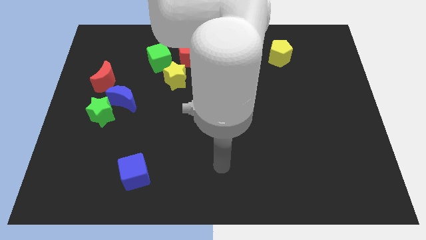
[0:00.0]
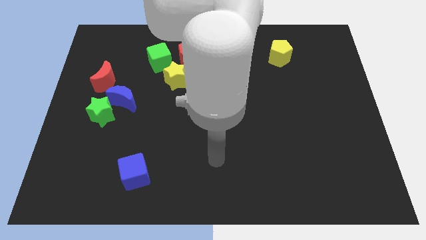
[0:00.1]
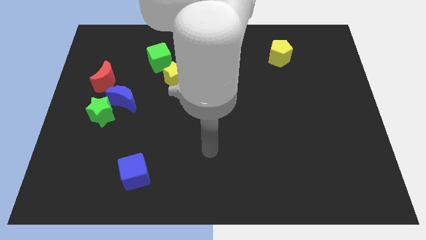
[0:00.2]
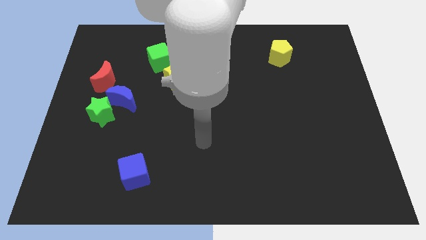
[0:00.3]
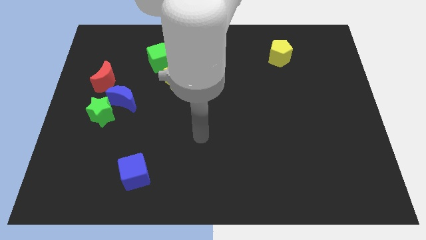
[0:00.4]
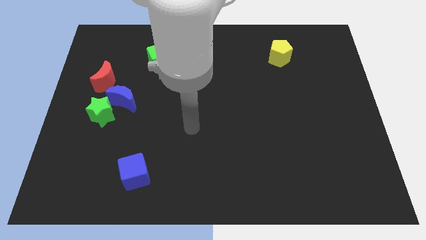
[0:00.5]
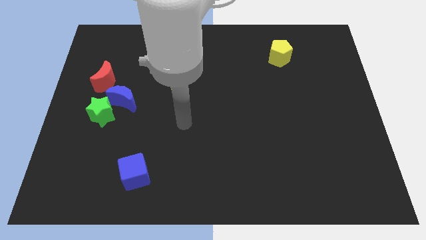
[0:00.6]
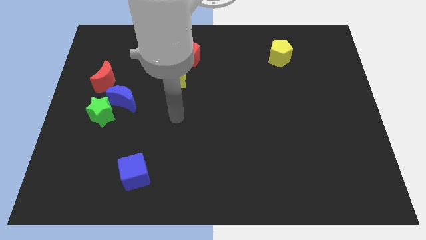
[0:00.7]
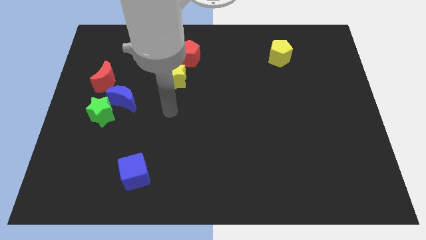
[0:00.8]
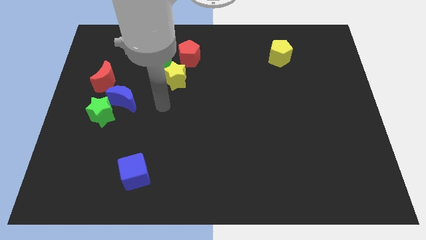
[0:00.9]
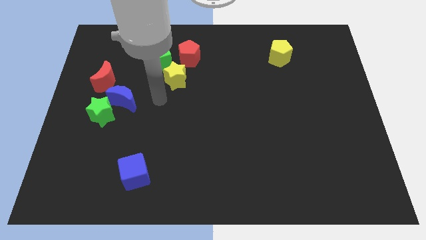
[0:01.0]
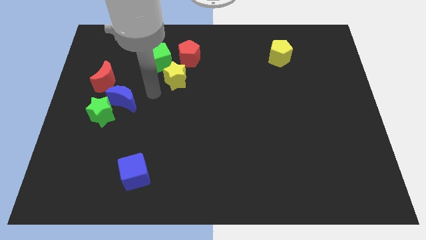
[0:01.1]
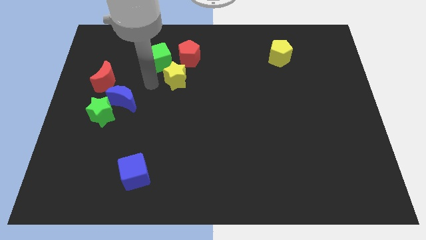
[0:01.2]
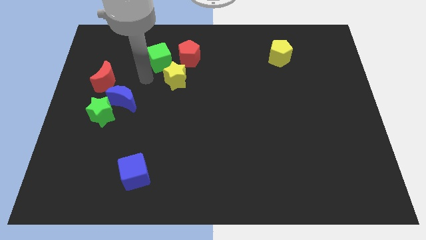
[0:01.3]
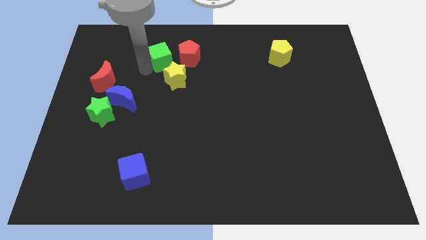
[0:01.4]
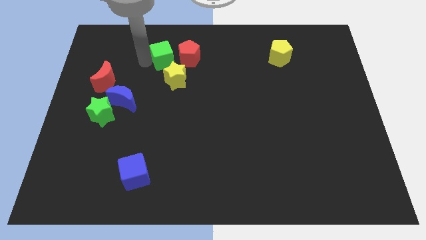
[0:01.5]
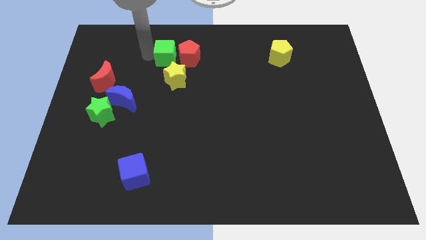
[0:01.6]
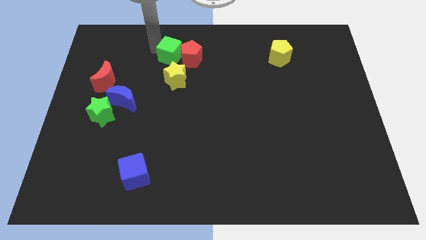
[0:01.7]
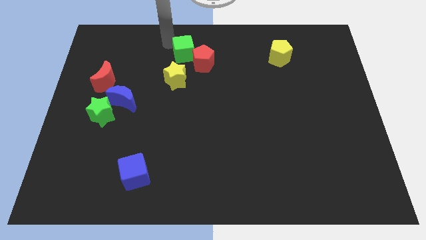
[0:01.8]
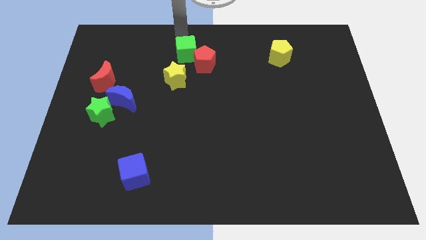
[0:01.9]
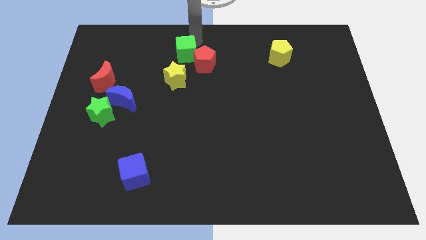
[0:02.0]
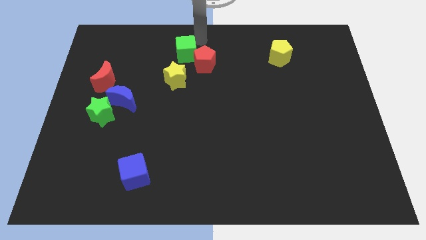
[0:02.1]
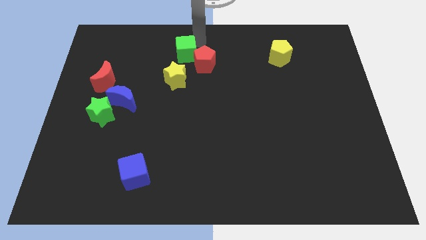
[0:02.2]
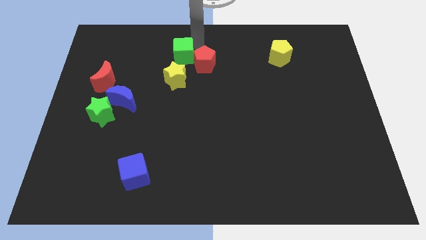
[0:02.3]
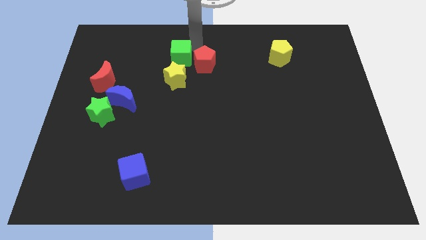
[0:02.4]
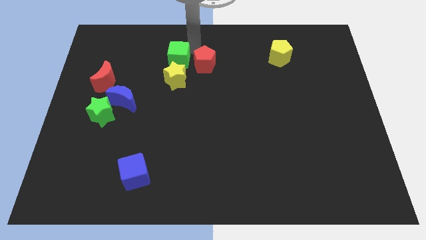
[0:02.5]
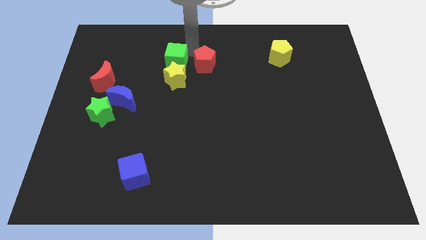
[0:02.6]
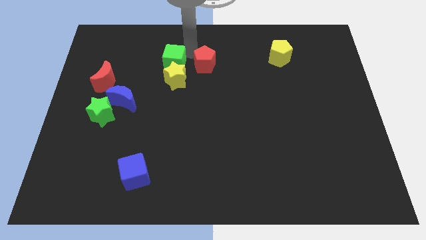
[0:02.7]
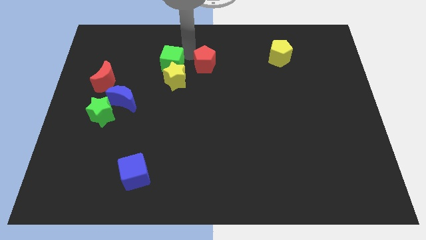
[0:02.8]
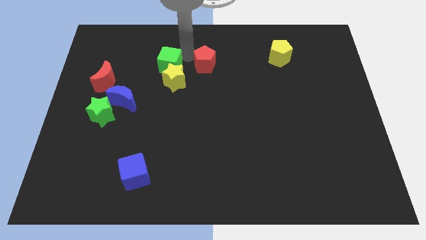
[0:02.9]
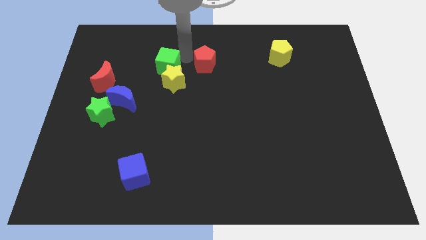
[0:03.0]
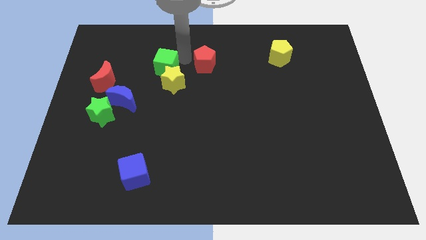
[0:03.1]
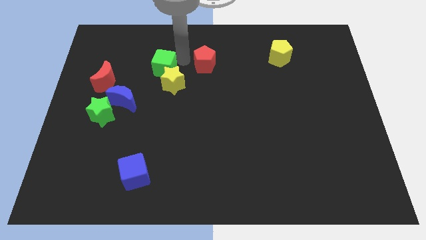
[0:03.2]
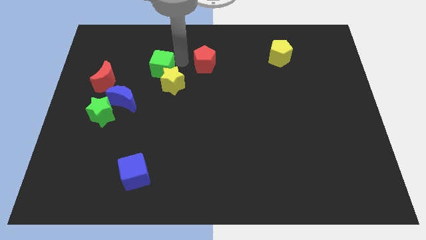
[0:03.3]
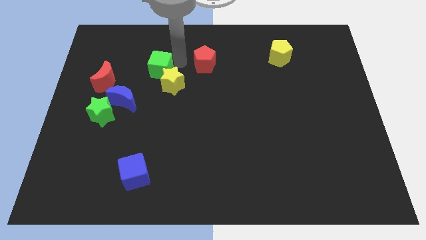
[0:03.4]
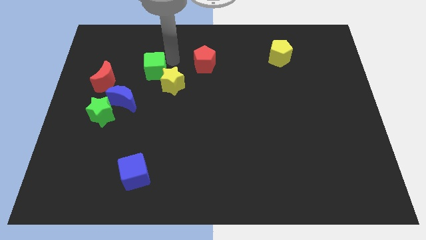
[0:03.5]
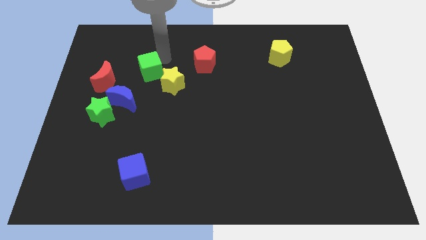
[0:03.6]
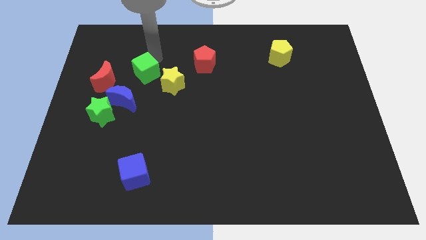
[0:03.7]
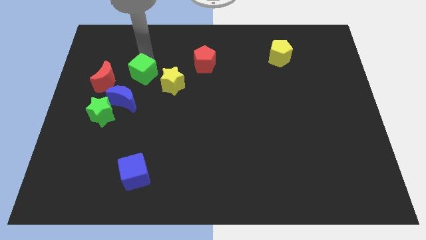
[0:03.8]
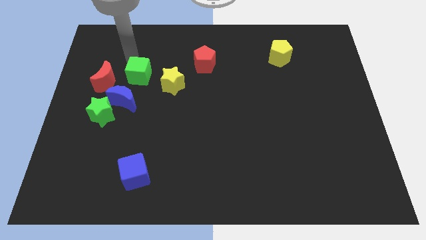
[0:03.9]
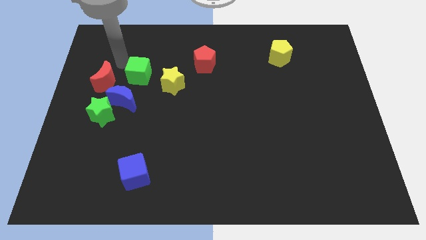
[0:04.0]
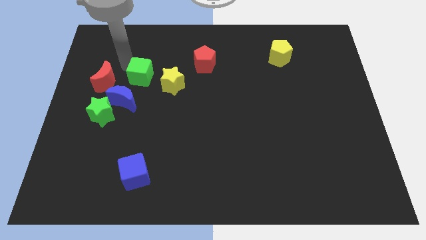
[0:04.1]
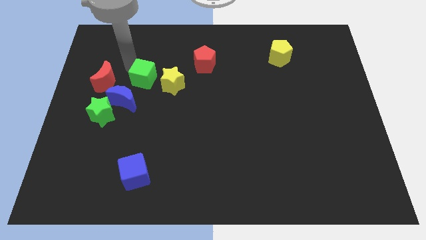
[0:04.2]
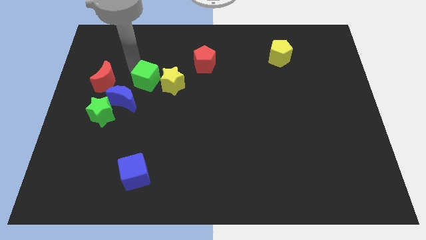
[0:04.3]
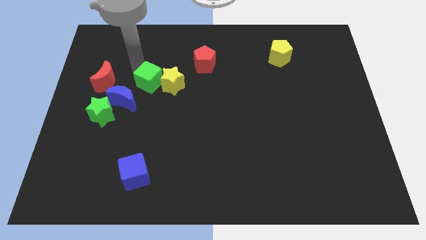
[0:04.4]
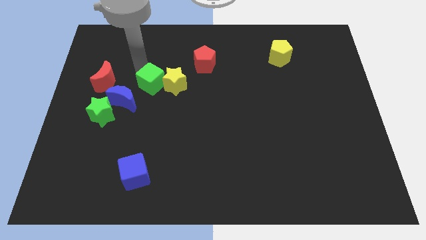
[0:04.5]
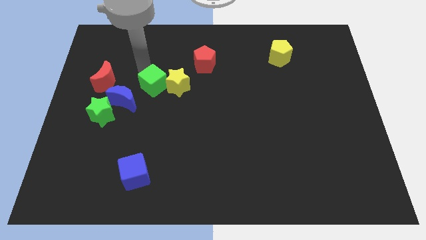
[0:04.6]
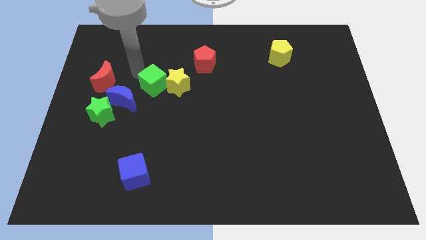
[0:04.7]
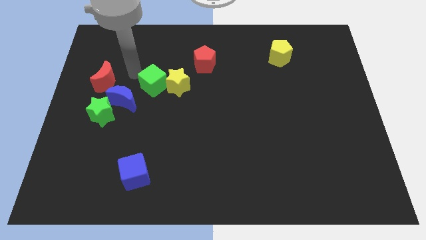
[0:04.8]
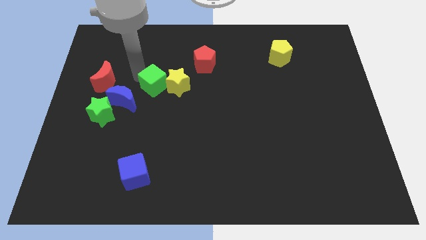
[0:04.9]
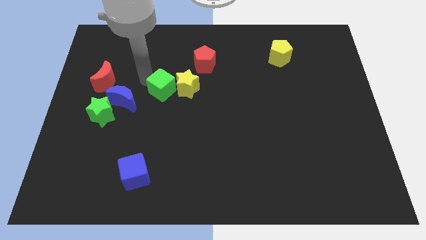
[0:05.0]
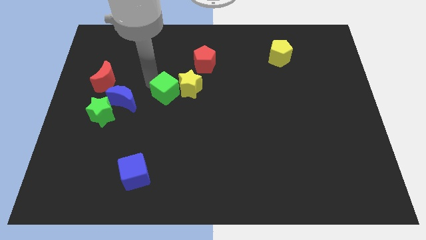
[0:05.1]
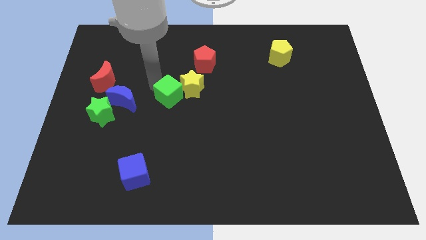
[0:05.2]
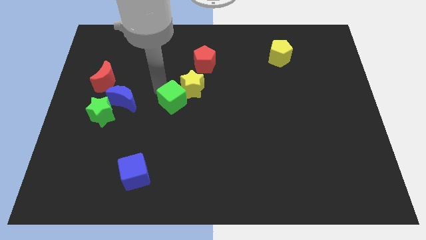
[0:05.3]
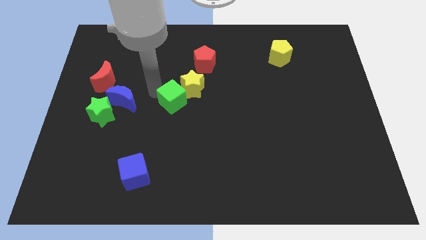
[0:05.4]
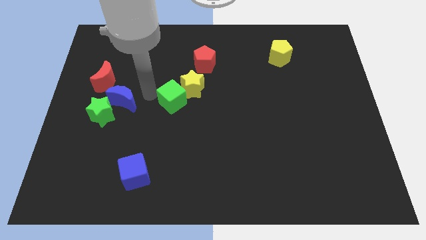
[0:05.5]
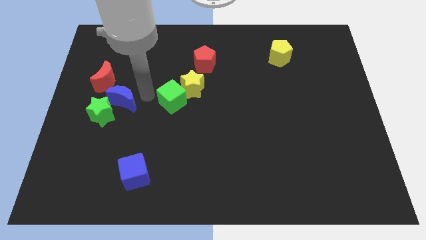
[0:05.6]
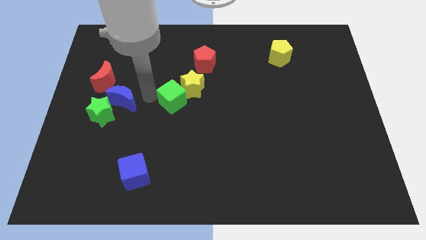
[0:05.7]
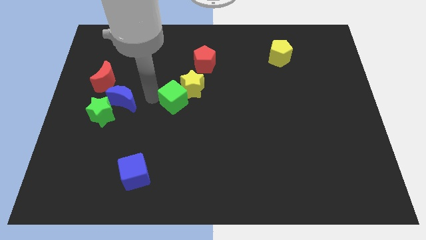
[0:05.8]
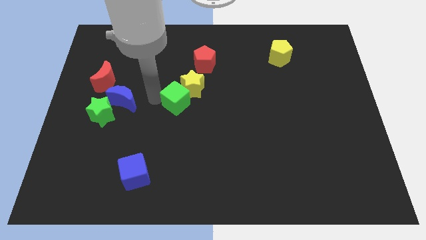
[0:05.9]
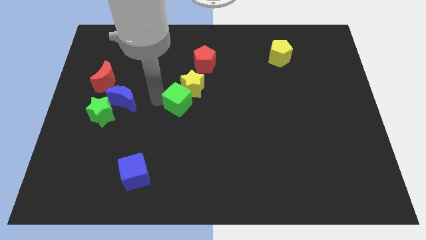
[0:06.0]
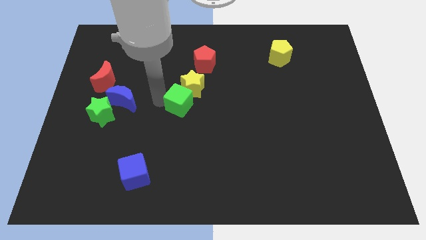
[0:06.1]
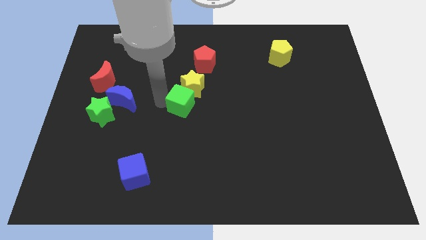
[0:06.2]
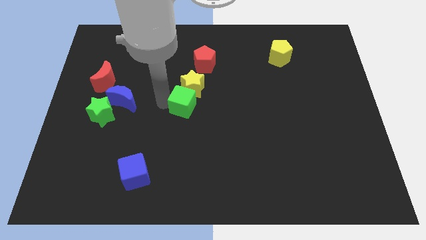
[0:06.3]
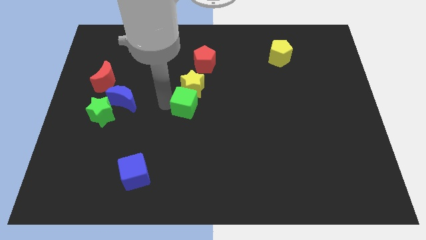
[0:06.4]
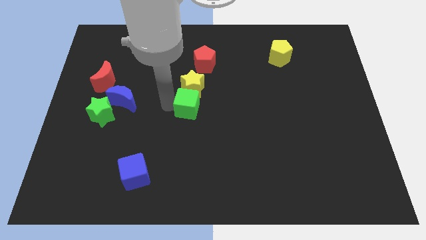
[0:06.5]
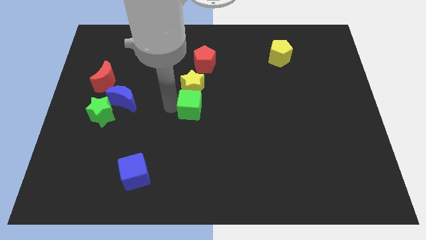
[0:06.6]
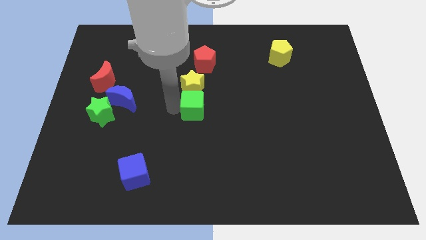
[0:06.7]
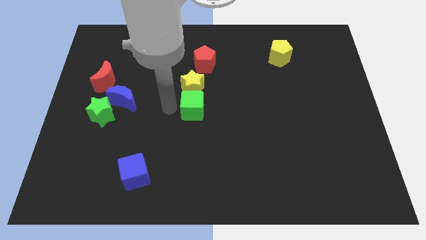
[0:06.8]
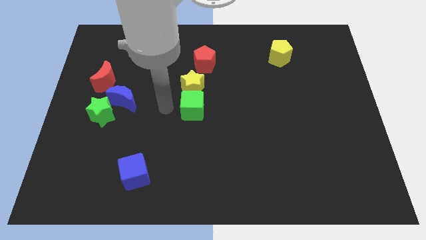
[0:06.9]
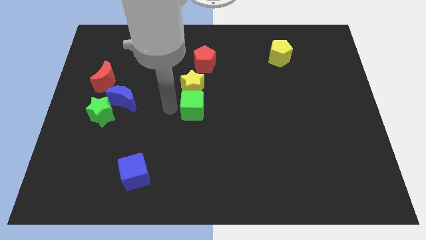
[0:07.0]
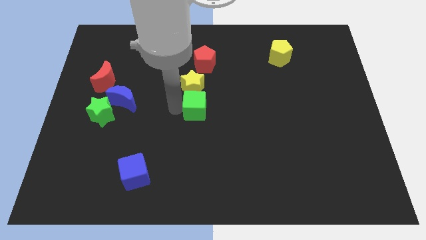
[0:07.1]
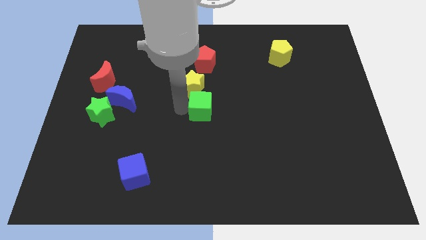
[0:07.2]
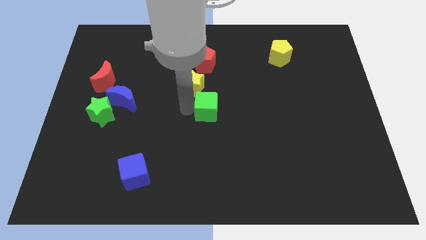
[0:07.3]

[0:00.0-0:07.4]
move the green cube diagonally down and right

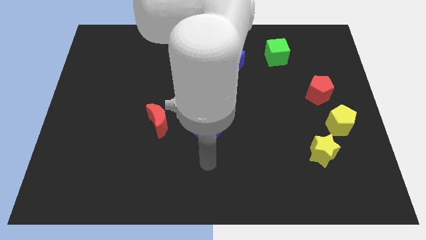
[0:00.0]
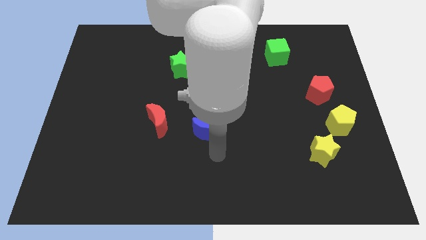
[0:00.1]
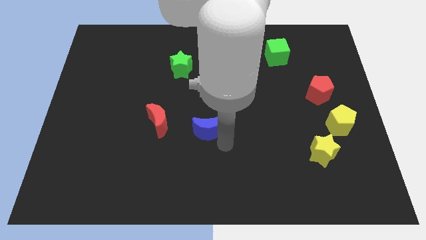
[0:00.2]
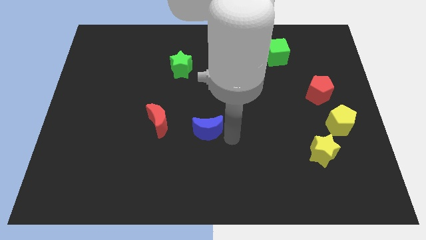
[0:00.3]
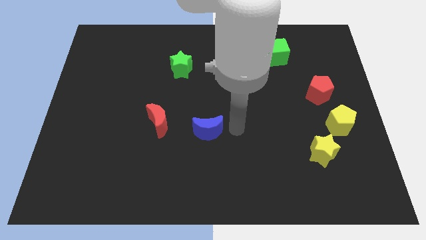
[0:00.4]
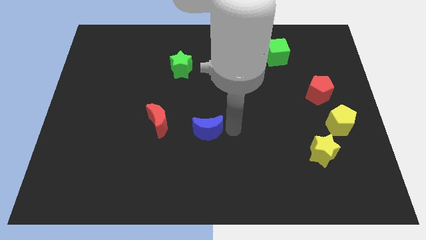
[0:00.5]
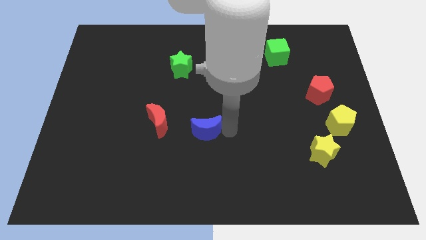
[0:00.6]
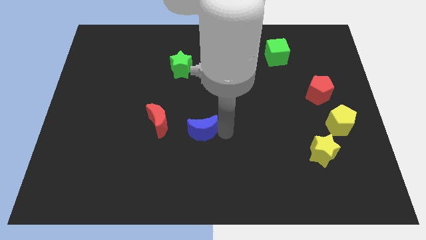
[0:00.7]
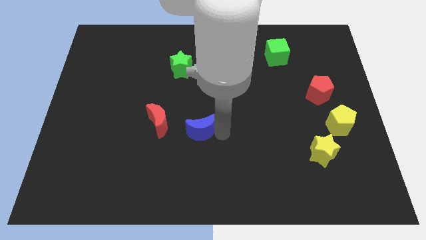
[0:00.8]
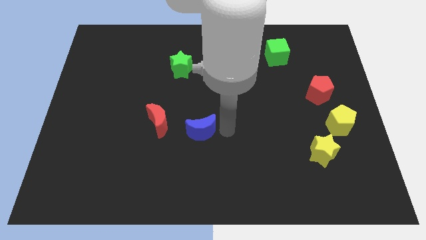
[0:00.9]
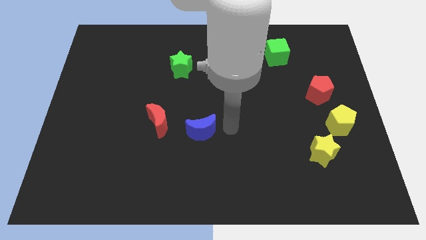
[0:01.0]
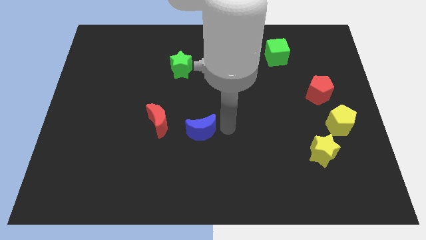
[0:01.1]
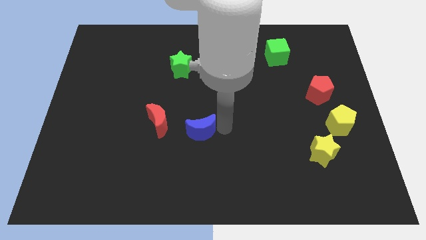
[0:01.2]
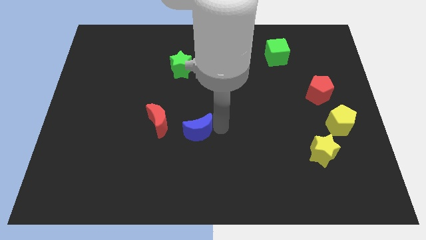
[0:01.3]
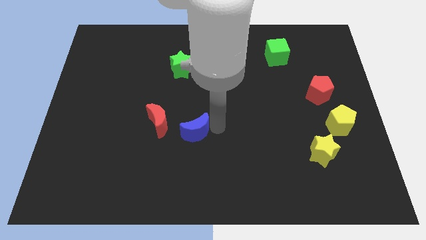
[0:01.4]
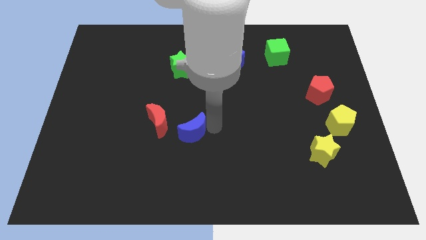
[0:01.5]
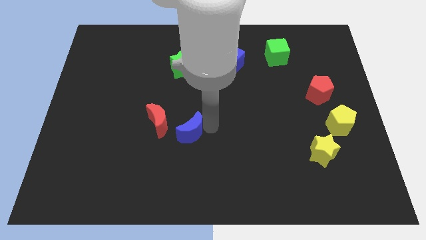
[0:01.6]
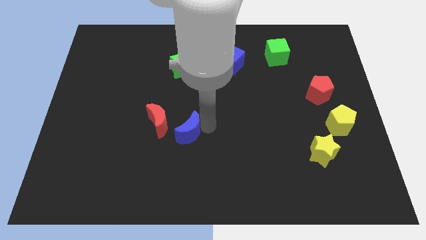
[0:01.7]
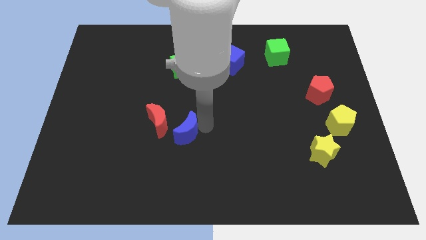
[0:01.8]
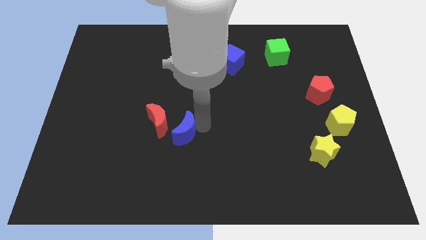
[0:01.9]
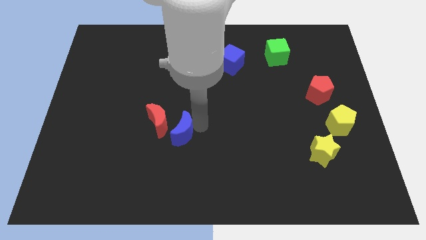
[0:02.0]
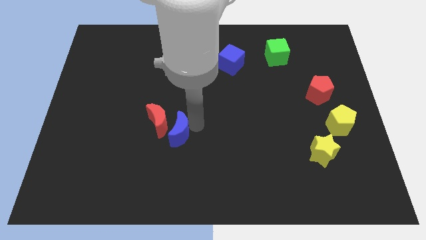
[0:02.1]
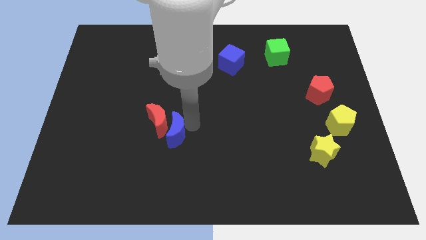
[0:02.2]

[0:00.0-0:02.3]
slightly move the blue moon left
